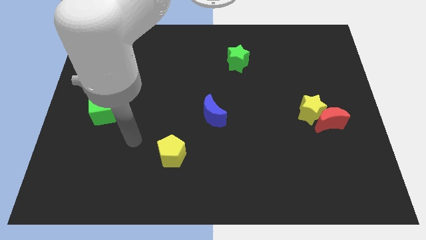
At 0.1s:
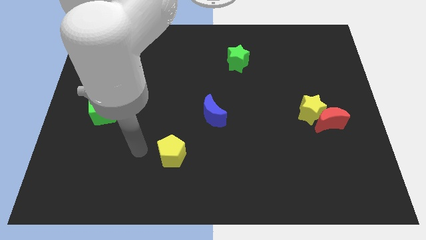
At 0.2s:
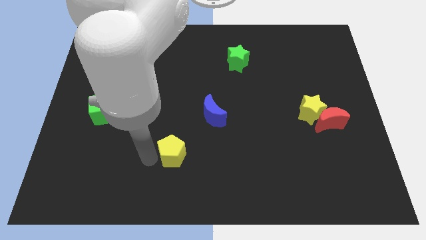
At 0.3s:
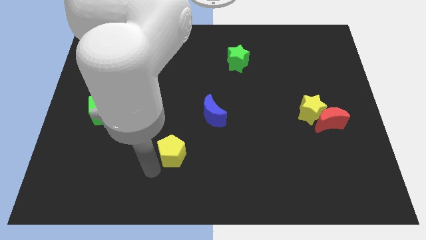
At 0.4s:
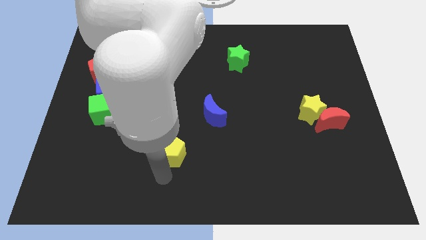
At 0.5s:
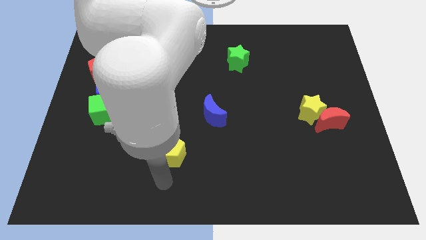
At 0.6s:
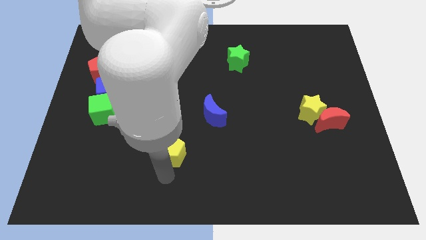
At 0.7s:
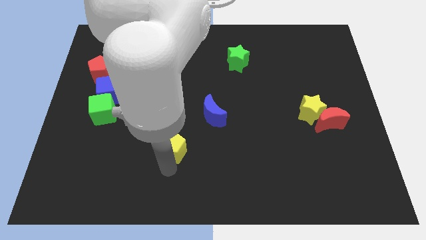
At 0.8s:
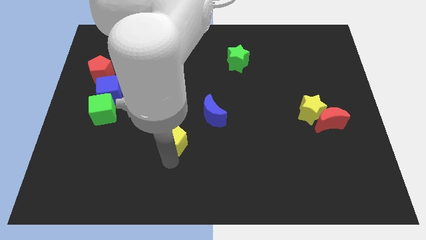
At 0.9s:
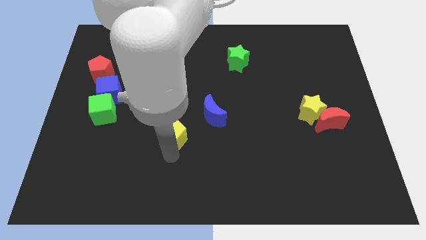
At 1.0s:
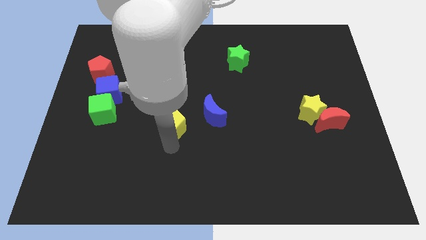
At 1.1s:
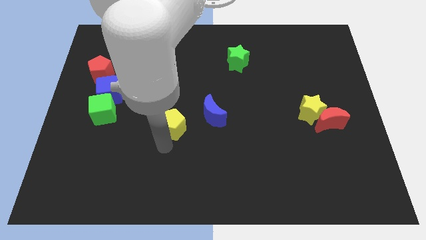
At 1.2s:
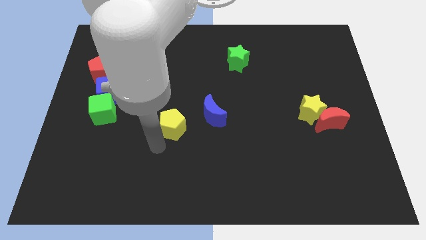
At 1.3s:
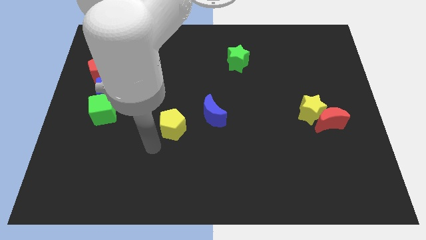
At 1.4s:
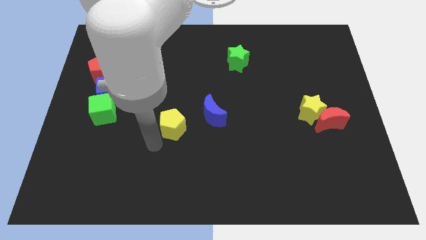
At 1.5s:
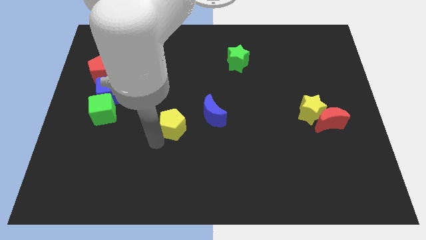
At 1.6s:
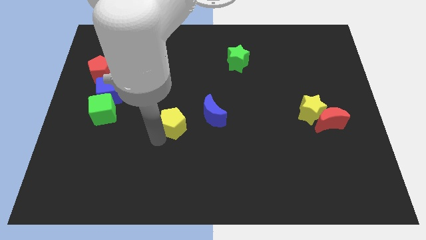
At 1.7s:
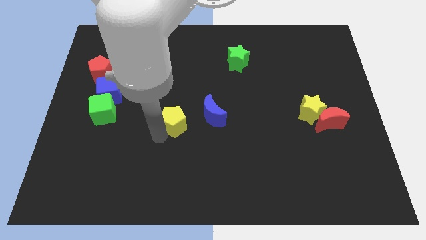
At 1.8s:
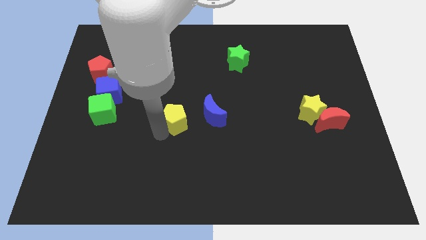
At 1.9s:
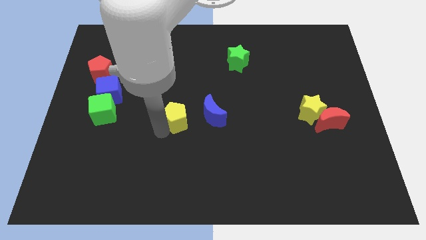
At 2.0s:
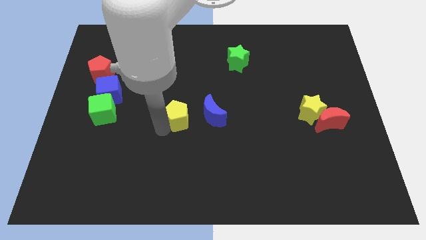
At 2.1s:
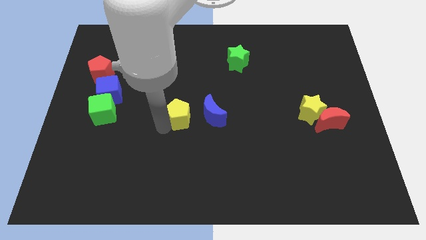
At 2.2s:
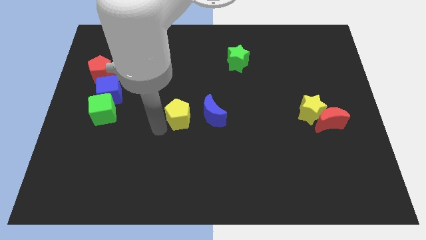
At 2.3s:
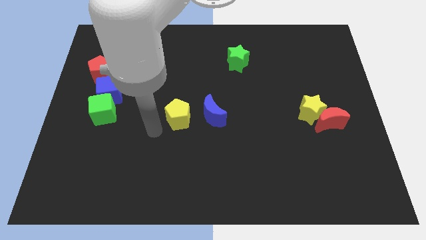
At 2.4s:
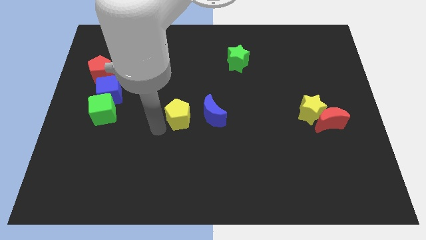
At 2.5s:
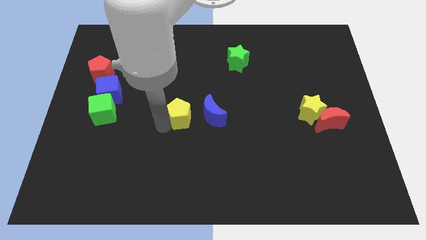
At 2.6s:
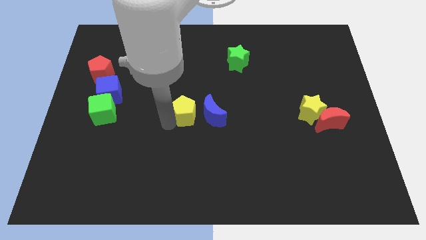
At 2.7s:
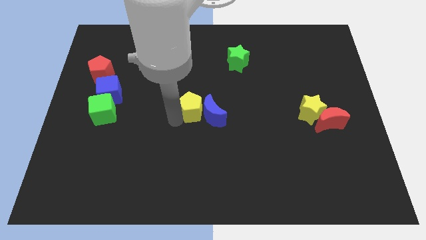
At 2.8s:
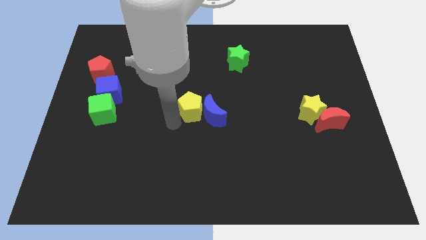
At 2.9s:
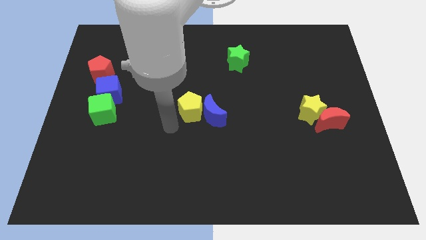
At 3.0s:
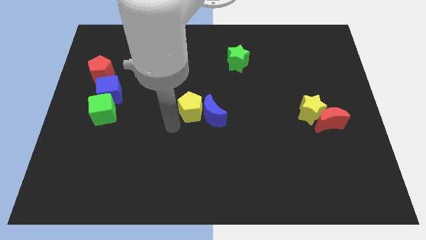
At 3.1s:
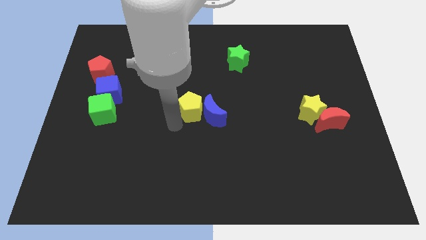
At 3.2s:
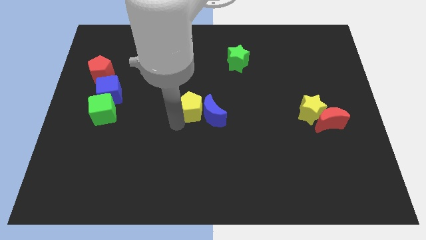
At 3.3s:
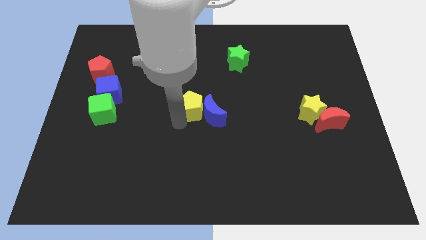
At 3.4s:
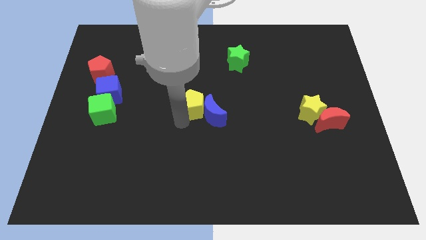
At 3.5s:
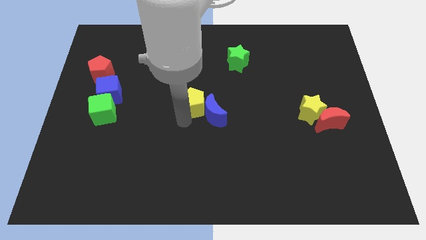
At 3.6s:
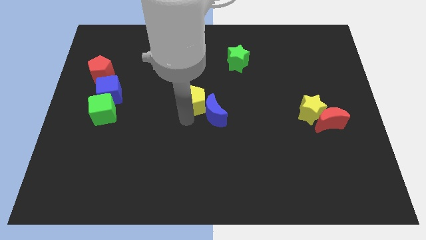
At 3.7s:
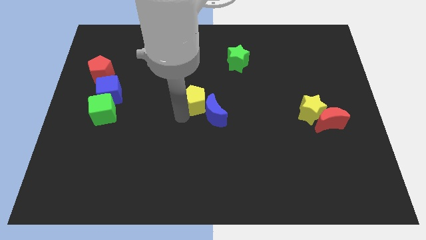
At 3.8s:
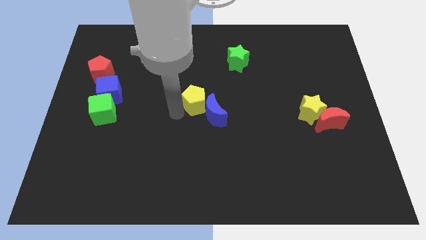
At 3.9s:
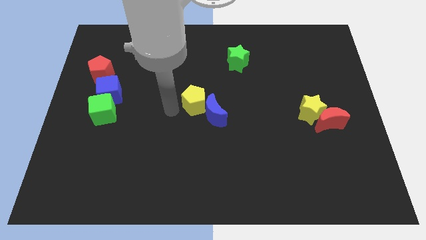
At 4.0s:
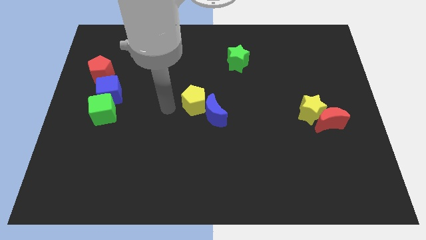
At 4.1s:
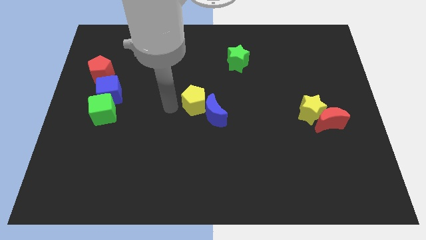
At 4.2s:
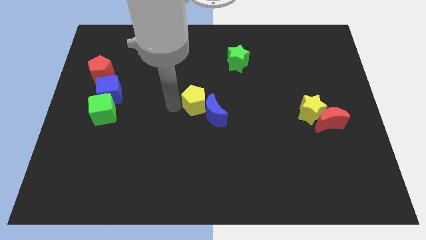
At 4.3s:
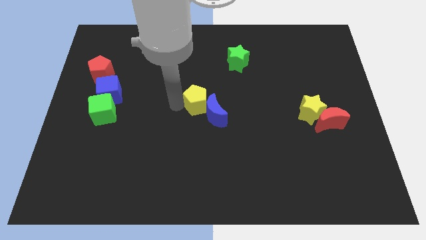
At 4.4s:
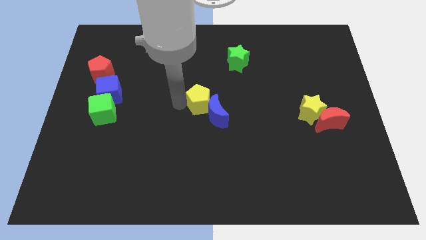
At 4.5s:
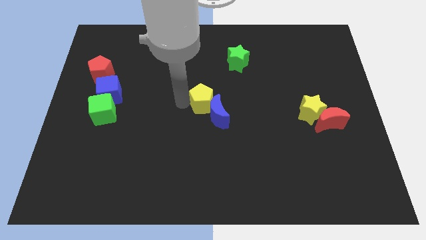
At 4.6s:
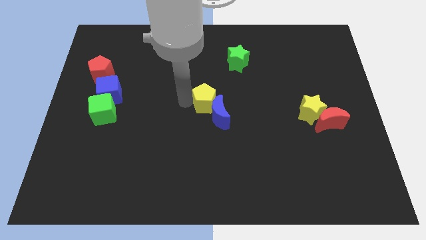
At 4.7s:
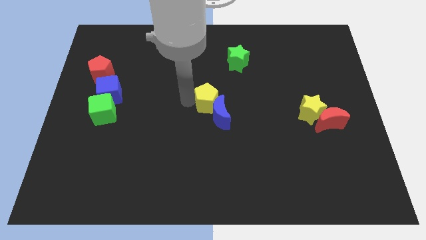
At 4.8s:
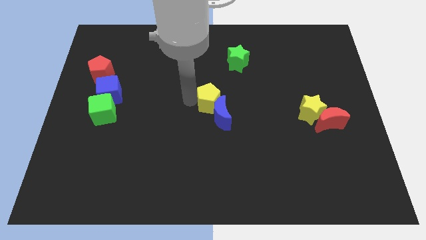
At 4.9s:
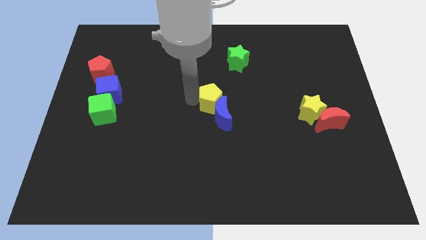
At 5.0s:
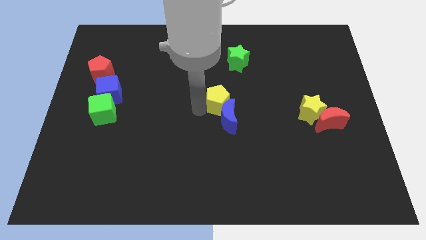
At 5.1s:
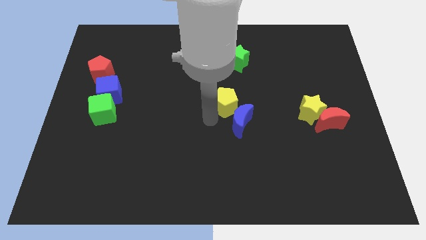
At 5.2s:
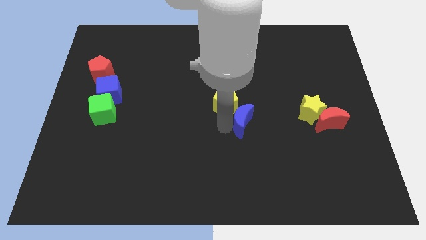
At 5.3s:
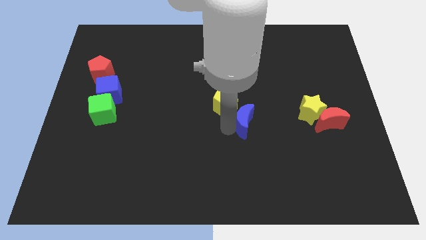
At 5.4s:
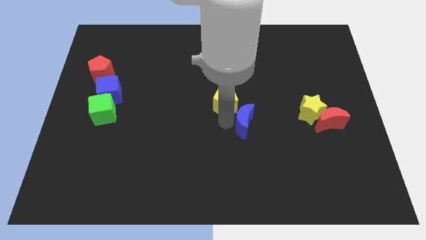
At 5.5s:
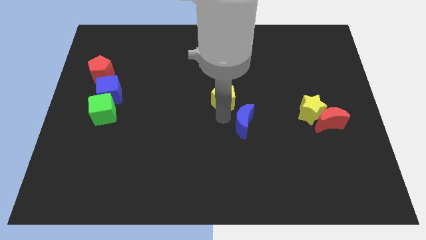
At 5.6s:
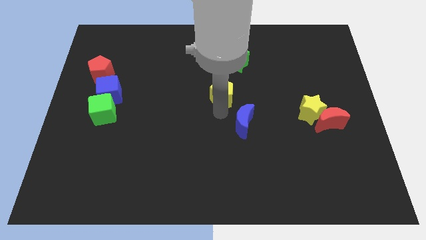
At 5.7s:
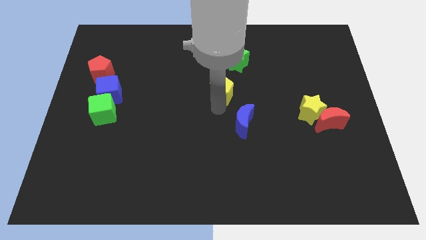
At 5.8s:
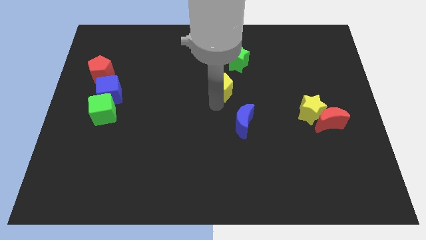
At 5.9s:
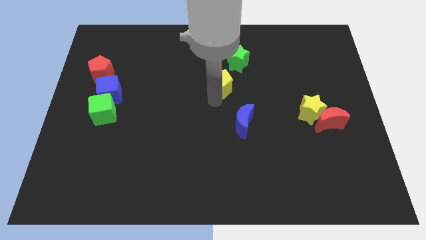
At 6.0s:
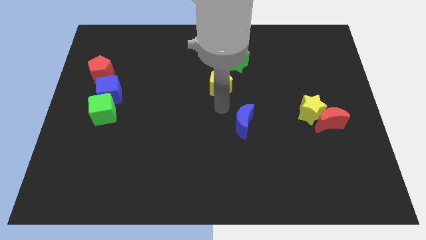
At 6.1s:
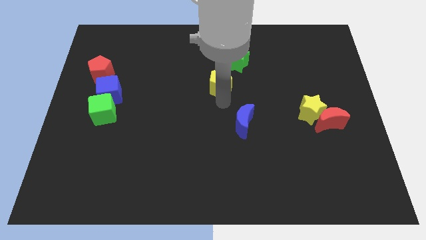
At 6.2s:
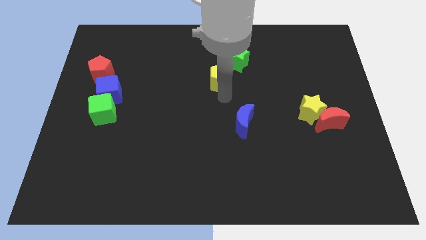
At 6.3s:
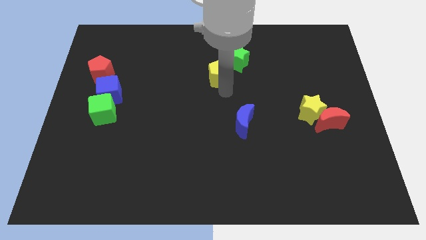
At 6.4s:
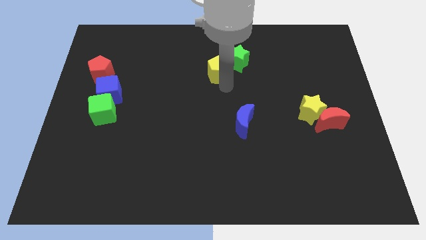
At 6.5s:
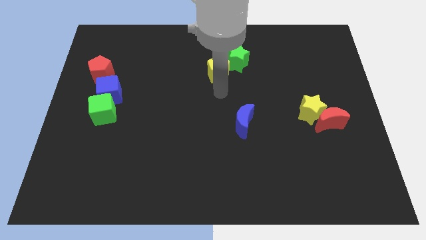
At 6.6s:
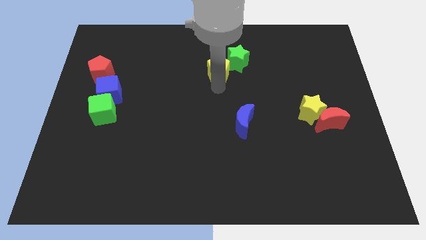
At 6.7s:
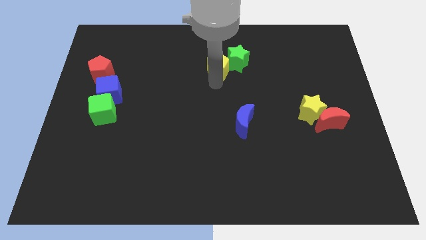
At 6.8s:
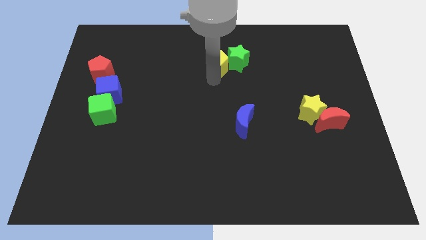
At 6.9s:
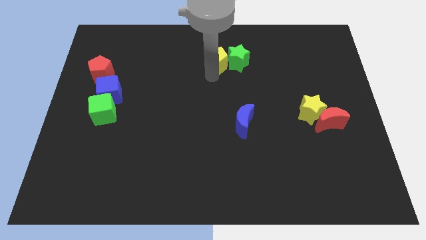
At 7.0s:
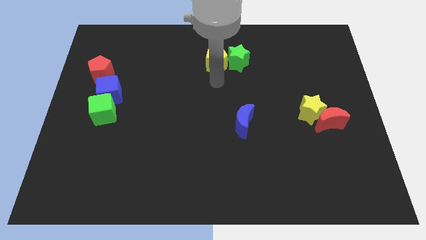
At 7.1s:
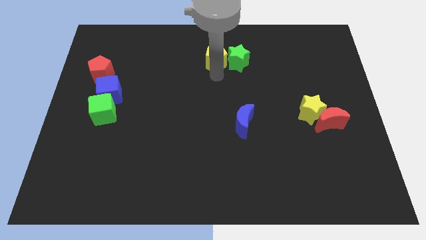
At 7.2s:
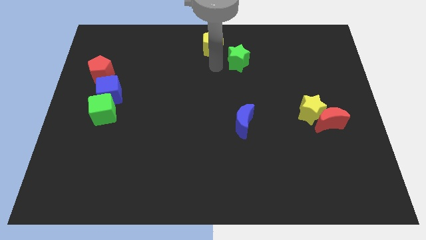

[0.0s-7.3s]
push the yellow pentagon to the towards your base

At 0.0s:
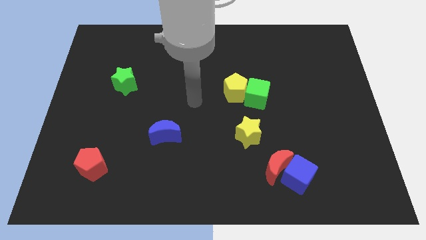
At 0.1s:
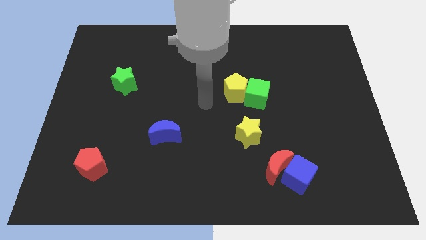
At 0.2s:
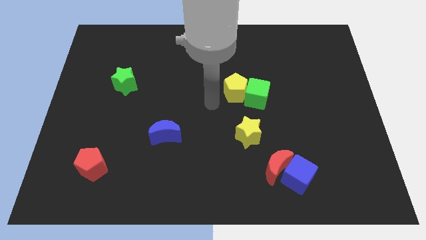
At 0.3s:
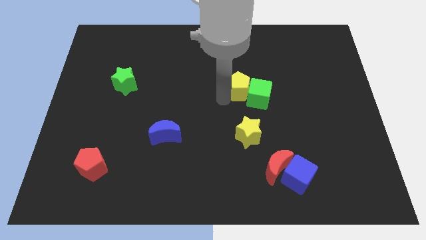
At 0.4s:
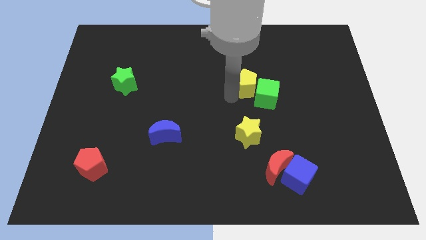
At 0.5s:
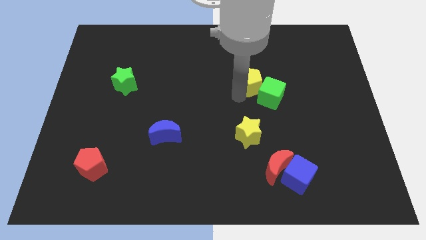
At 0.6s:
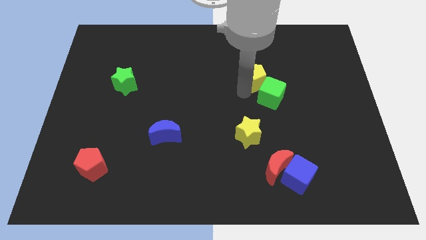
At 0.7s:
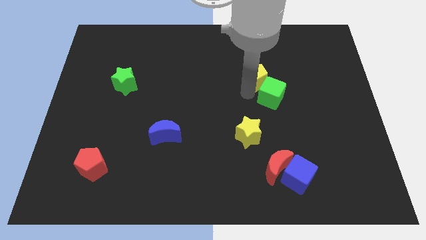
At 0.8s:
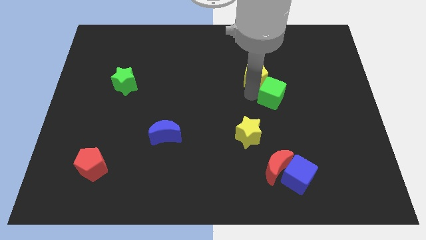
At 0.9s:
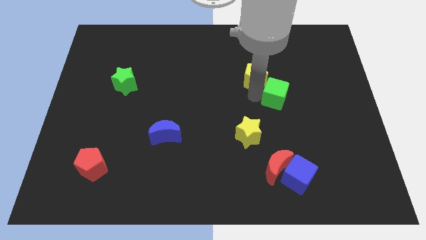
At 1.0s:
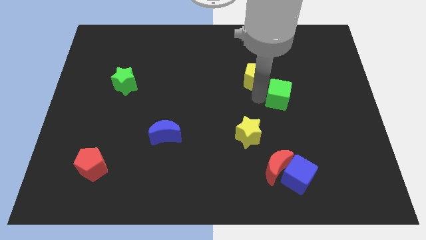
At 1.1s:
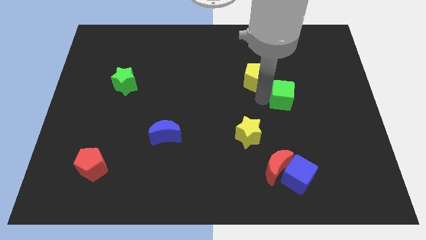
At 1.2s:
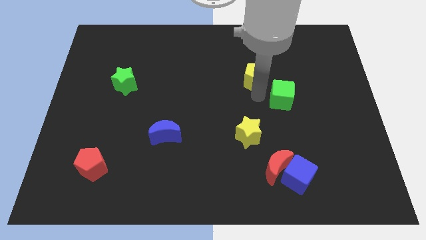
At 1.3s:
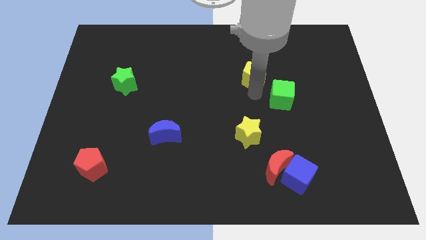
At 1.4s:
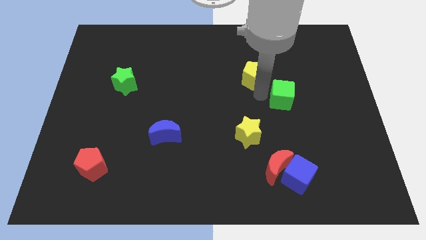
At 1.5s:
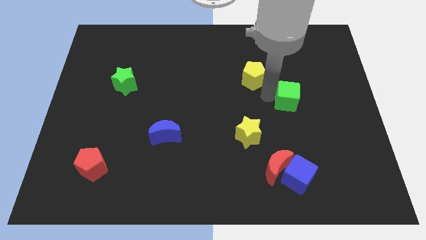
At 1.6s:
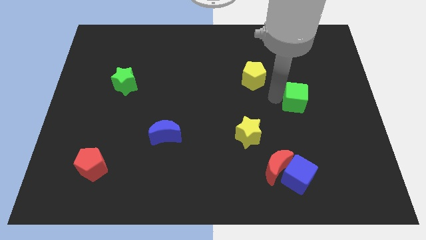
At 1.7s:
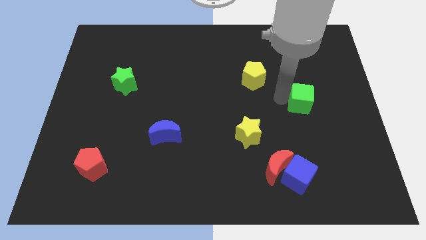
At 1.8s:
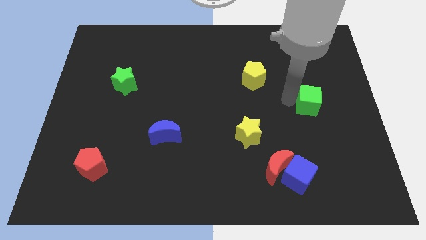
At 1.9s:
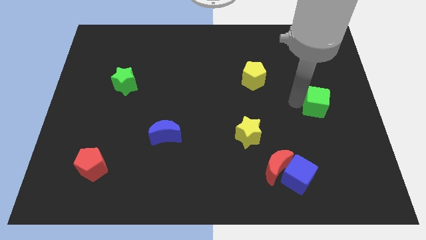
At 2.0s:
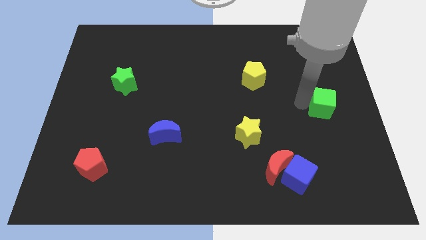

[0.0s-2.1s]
put the green cube to the center right
